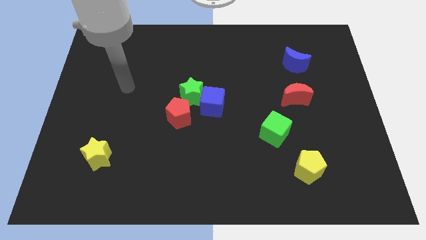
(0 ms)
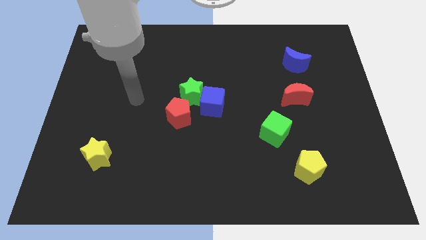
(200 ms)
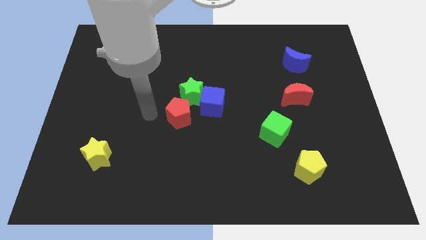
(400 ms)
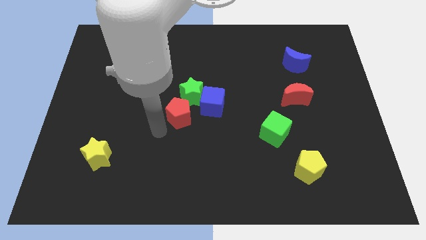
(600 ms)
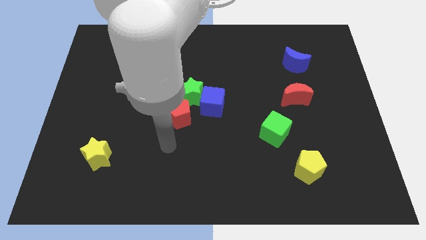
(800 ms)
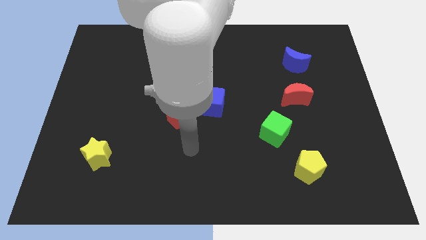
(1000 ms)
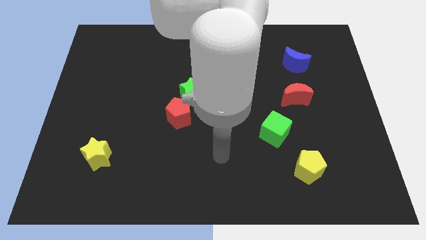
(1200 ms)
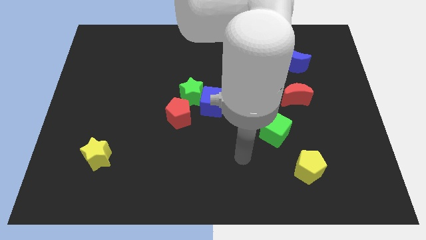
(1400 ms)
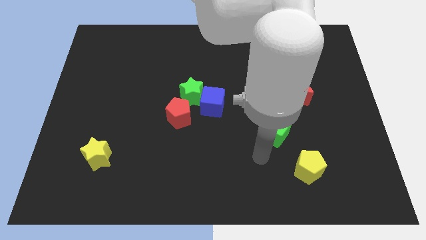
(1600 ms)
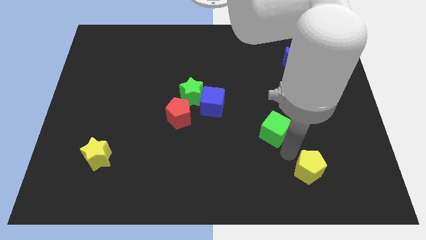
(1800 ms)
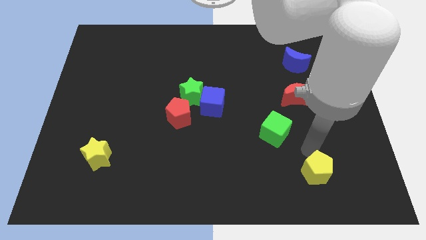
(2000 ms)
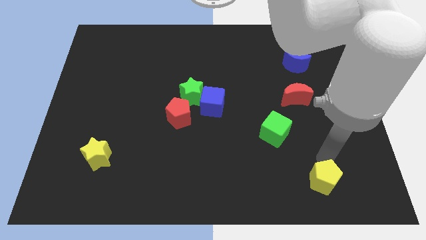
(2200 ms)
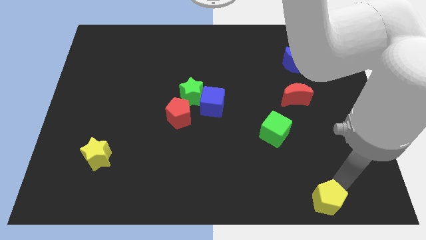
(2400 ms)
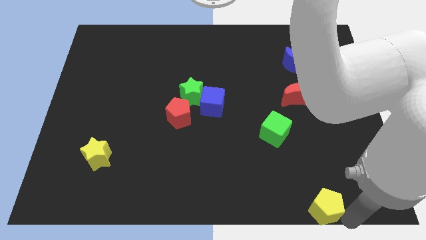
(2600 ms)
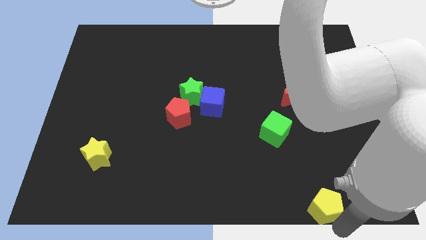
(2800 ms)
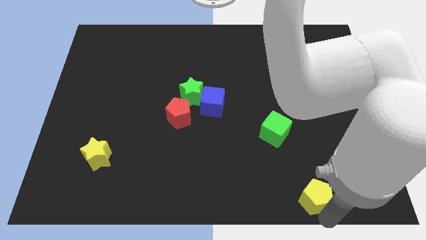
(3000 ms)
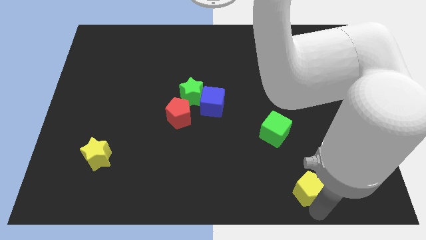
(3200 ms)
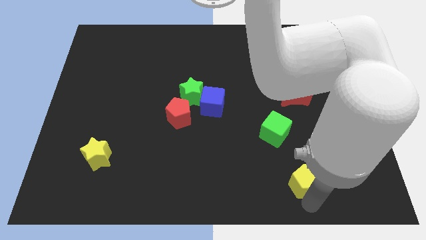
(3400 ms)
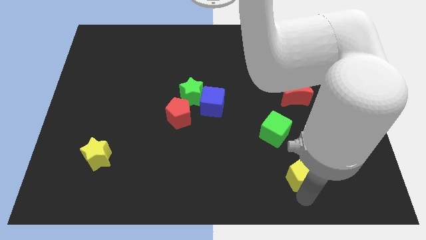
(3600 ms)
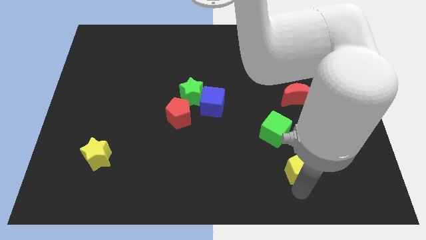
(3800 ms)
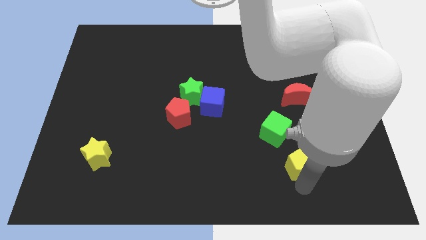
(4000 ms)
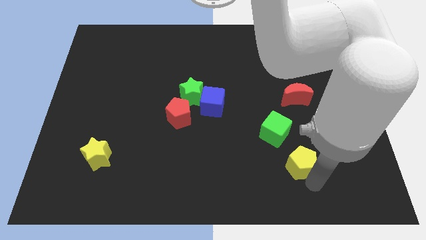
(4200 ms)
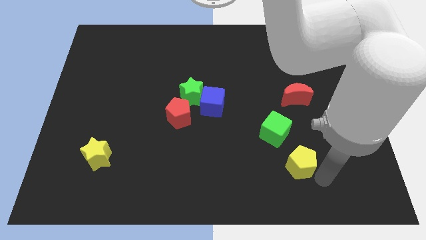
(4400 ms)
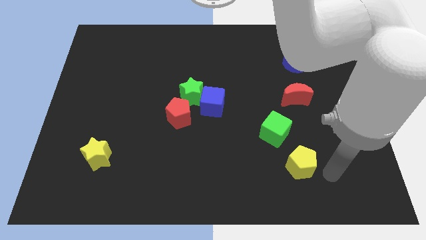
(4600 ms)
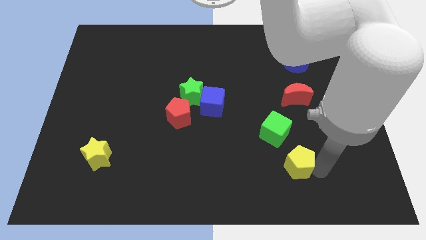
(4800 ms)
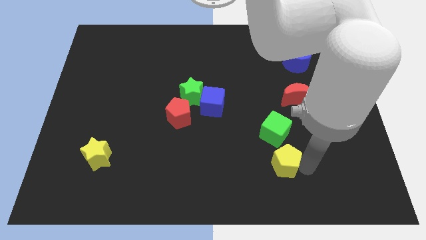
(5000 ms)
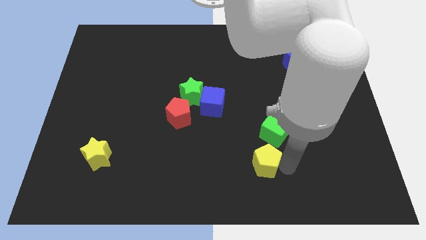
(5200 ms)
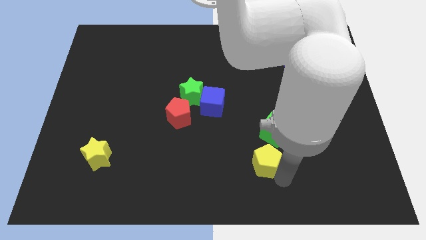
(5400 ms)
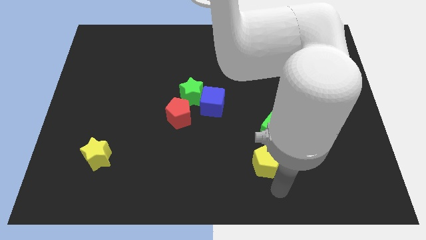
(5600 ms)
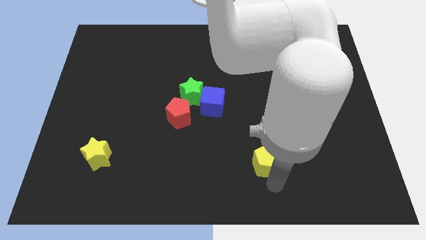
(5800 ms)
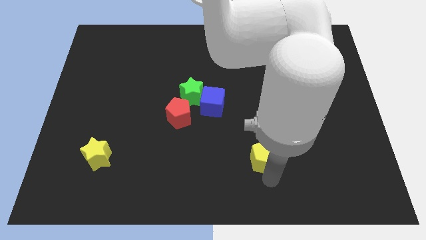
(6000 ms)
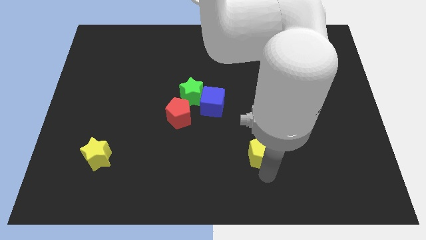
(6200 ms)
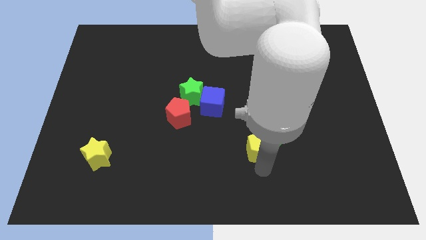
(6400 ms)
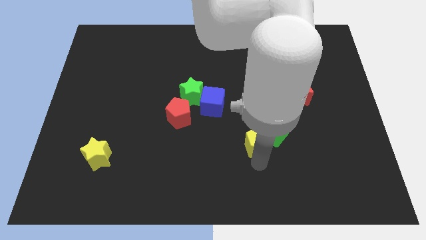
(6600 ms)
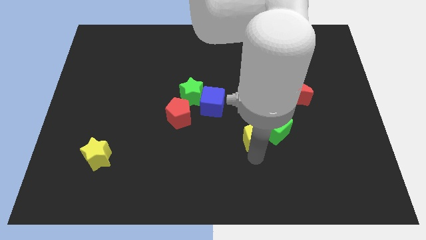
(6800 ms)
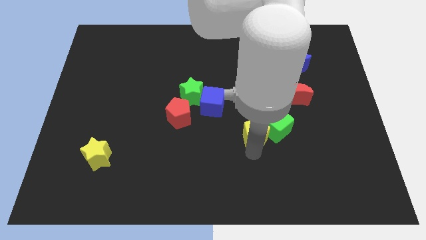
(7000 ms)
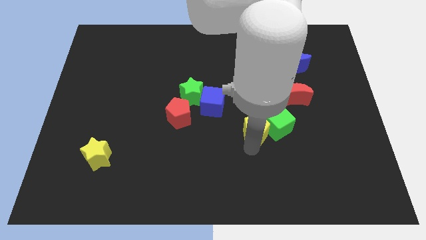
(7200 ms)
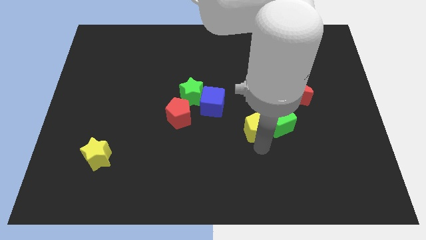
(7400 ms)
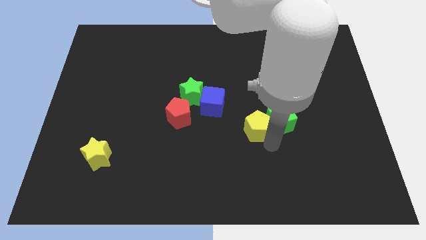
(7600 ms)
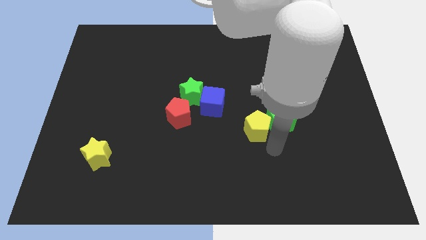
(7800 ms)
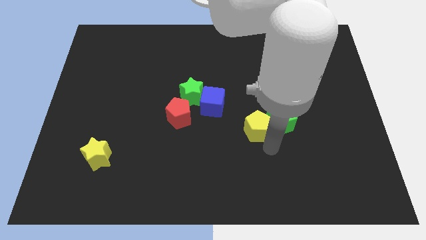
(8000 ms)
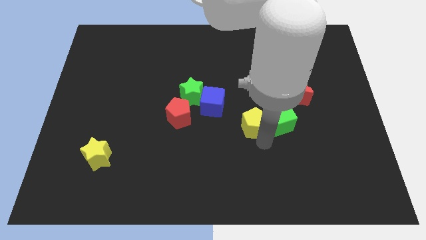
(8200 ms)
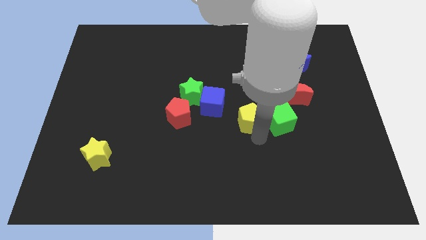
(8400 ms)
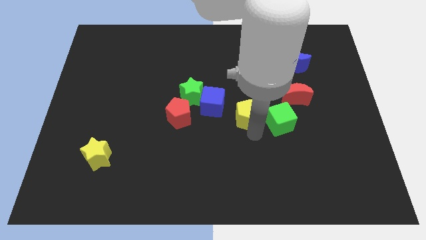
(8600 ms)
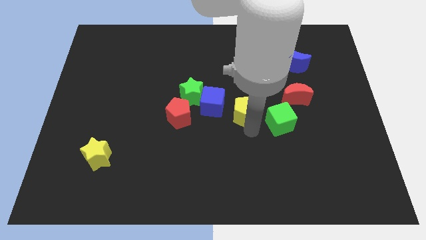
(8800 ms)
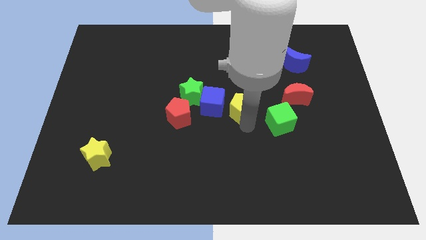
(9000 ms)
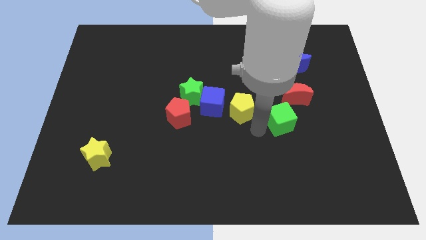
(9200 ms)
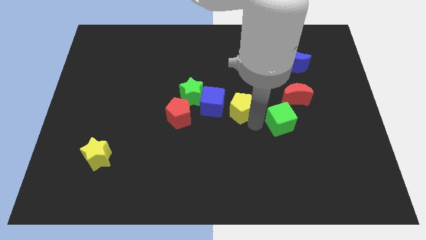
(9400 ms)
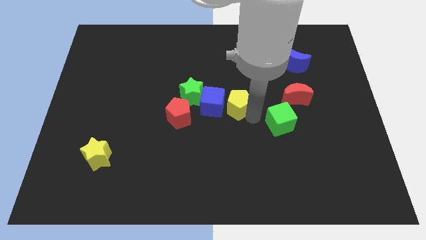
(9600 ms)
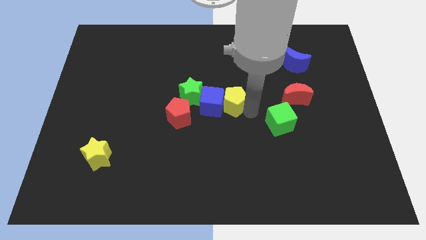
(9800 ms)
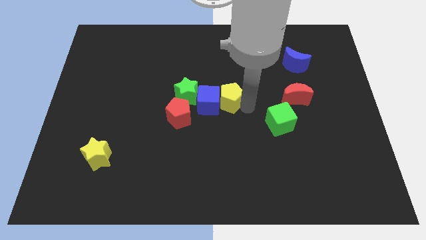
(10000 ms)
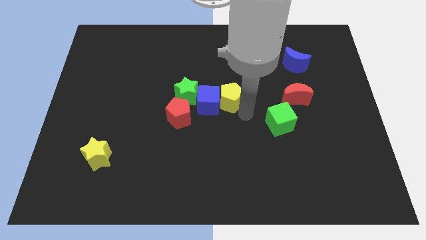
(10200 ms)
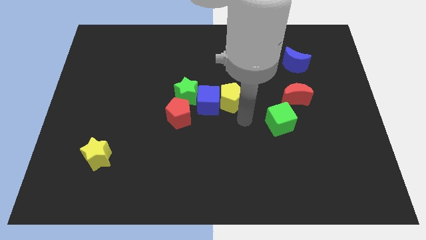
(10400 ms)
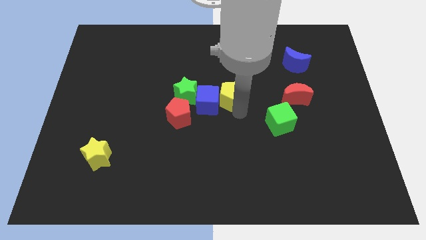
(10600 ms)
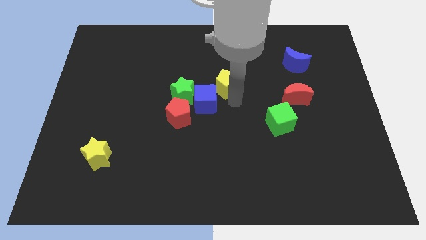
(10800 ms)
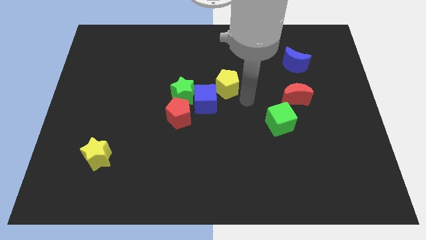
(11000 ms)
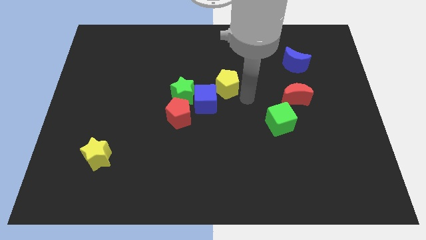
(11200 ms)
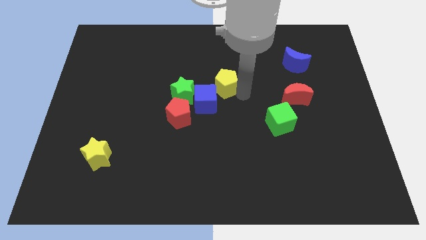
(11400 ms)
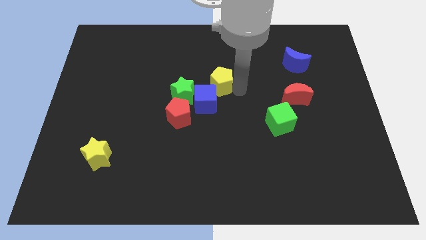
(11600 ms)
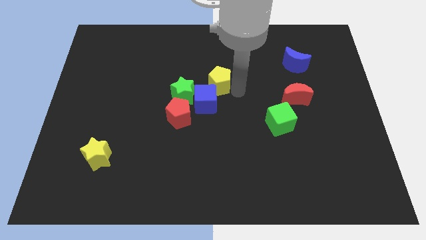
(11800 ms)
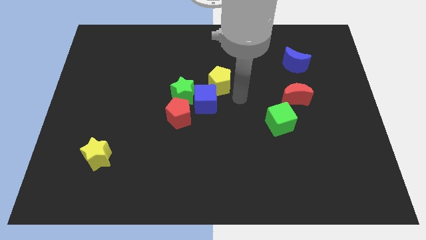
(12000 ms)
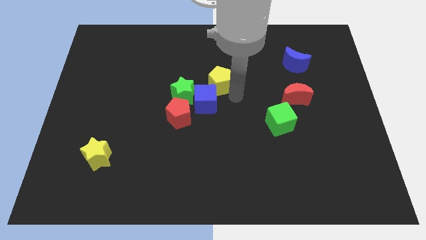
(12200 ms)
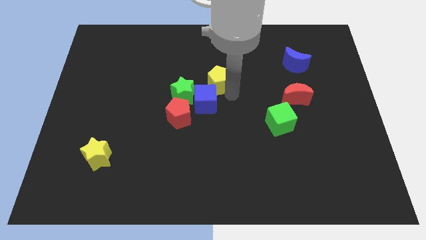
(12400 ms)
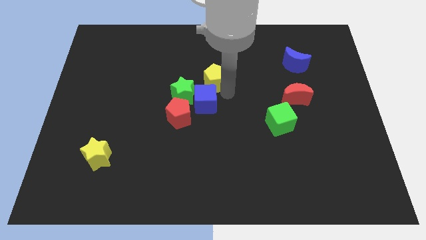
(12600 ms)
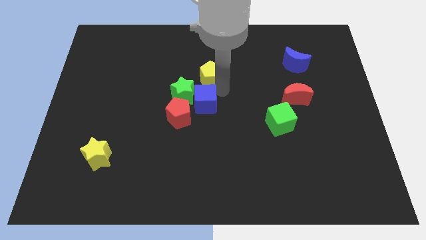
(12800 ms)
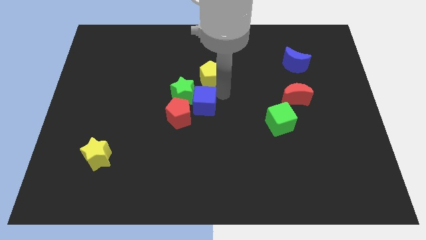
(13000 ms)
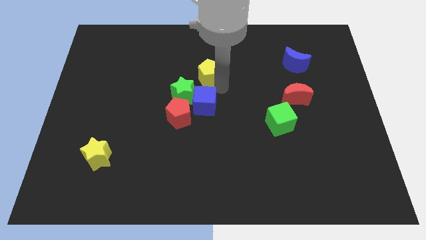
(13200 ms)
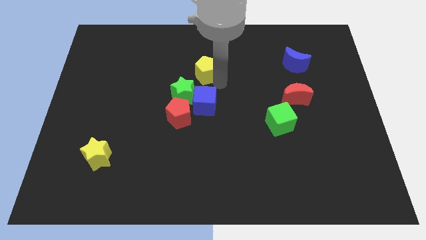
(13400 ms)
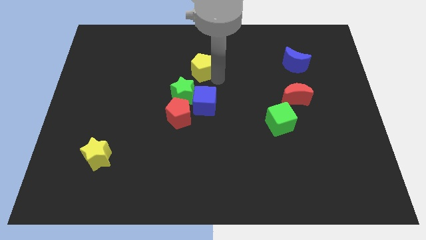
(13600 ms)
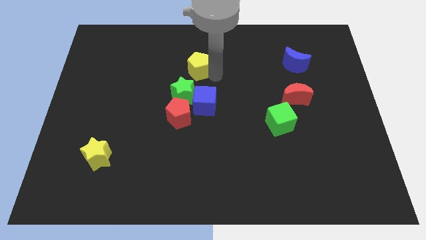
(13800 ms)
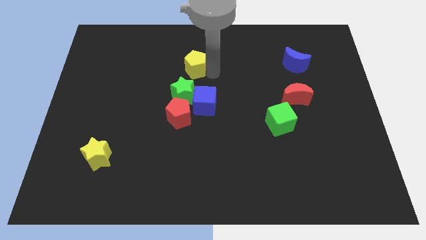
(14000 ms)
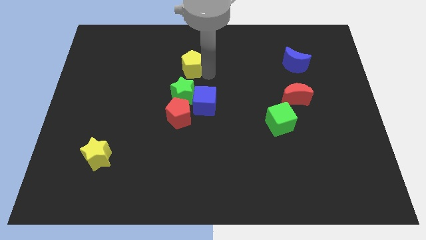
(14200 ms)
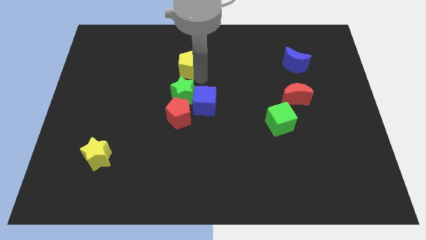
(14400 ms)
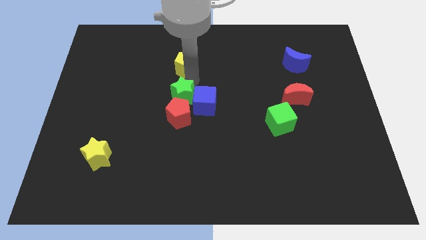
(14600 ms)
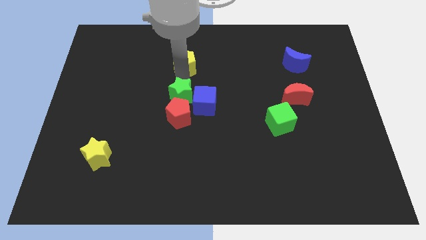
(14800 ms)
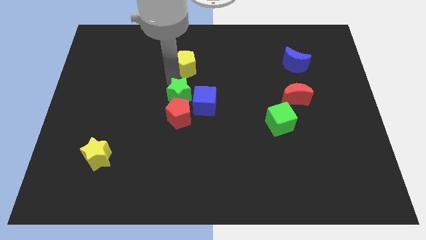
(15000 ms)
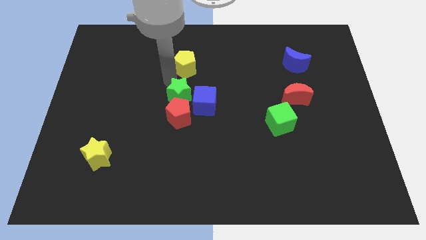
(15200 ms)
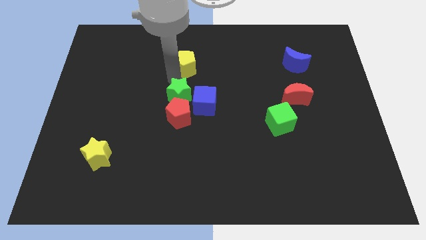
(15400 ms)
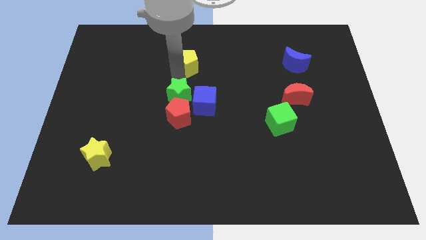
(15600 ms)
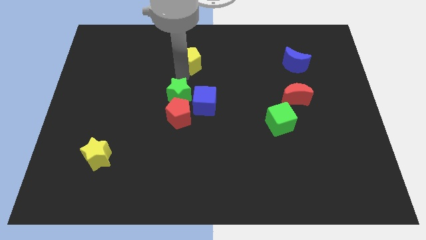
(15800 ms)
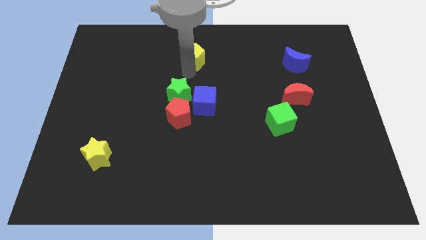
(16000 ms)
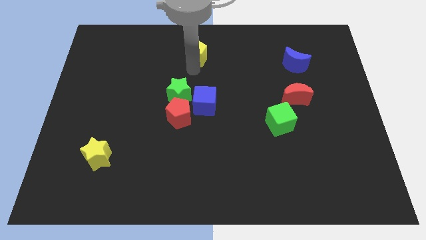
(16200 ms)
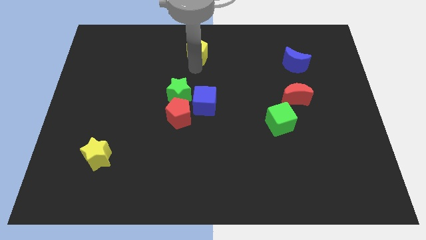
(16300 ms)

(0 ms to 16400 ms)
push the yellow pentagon to the top
